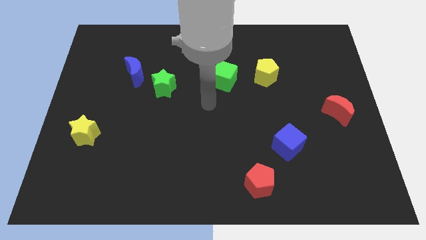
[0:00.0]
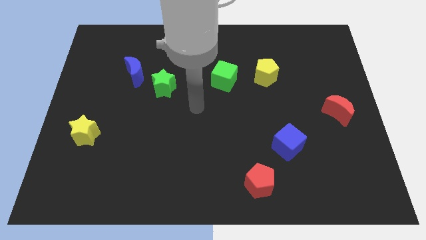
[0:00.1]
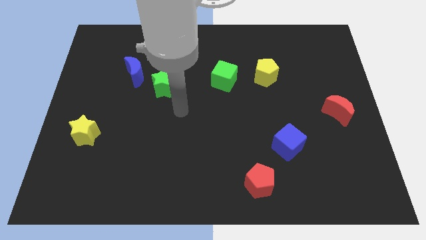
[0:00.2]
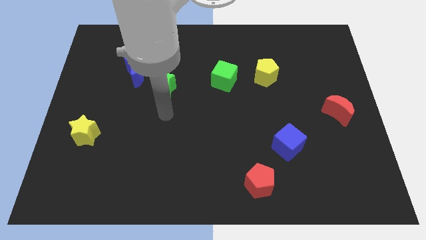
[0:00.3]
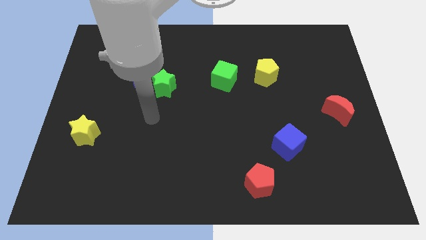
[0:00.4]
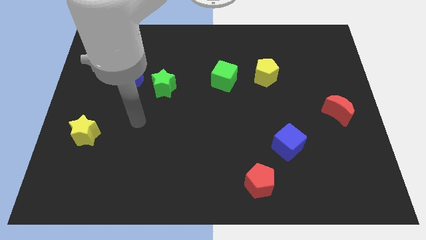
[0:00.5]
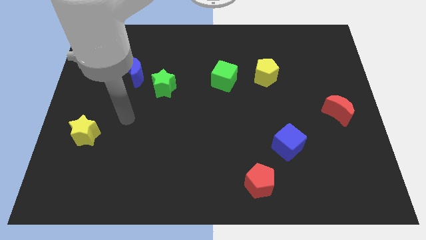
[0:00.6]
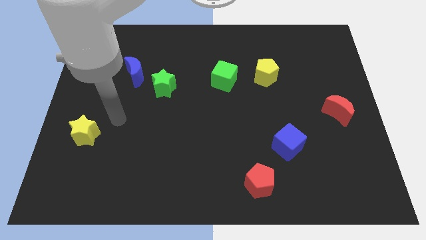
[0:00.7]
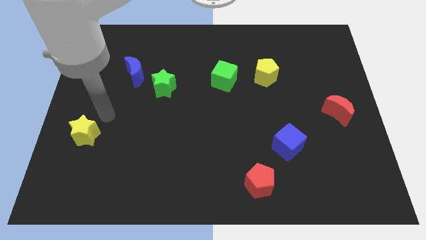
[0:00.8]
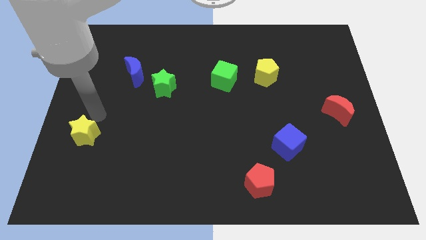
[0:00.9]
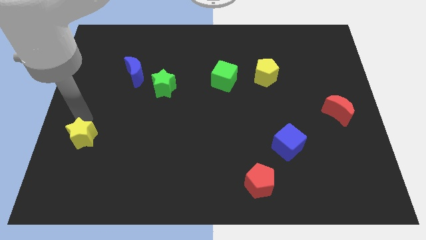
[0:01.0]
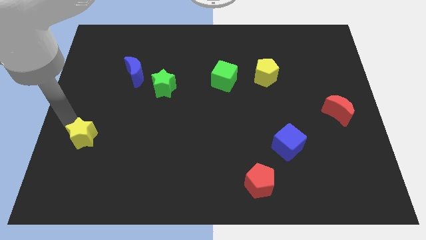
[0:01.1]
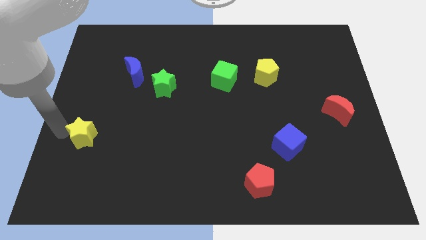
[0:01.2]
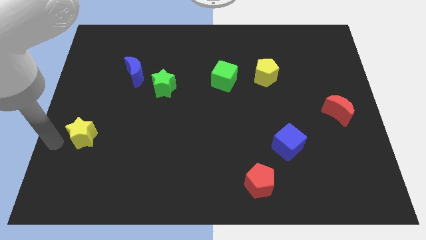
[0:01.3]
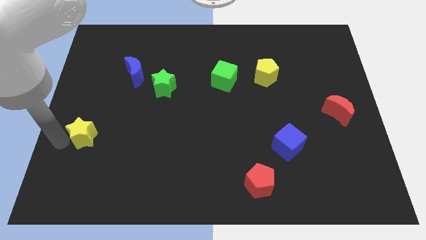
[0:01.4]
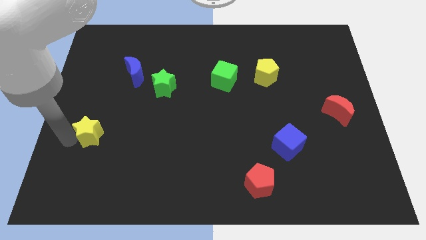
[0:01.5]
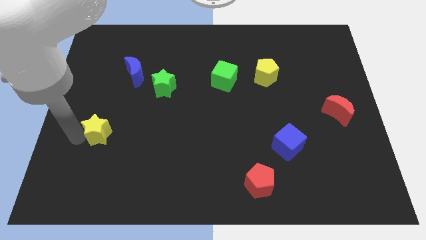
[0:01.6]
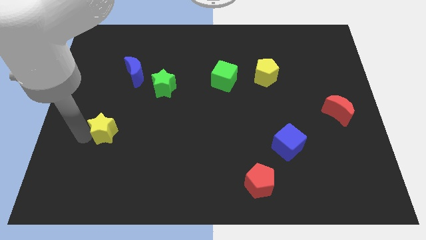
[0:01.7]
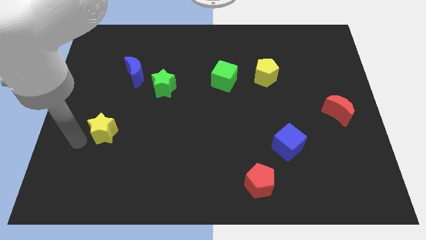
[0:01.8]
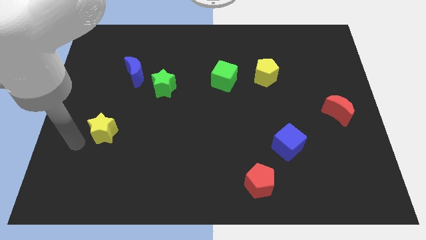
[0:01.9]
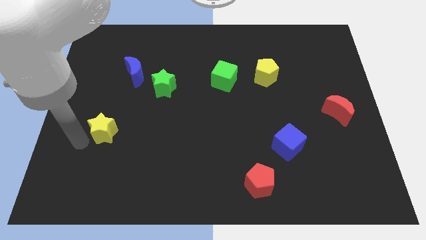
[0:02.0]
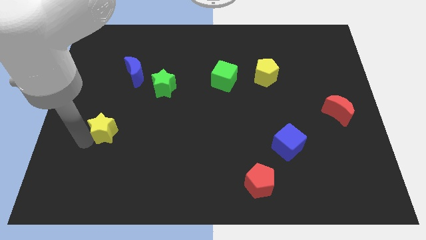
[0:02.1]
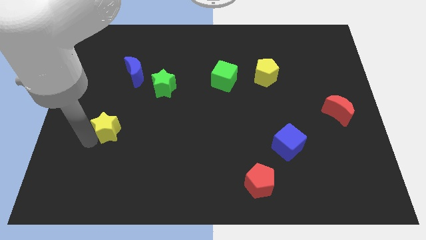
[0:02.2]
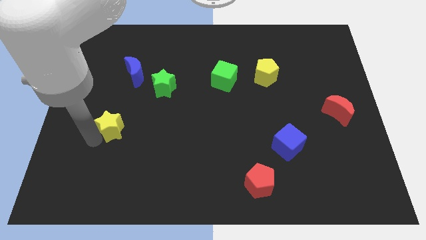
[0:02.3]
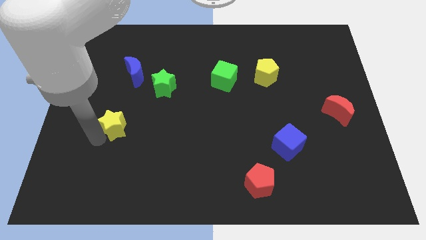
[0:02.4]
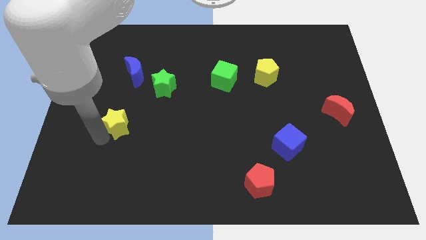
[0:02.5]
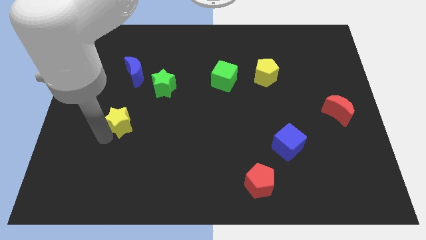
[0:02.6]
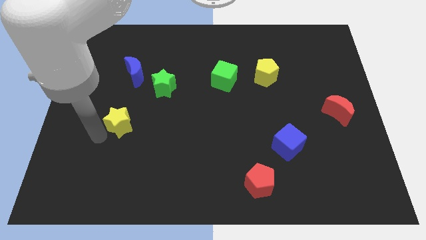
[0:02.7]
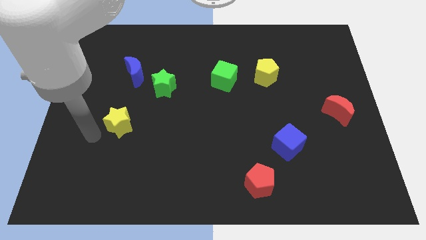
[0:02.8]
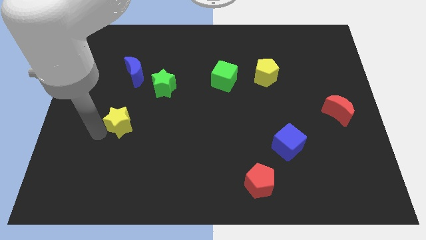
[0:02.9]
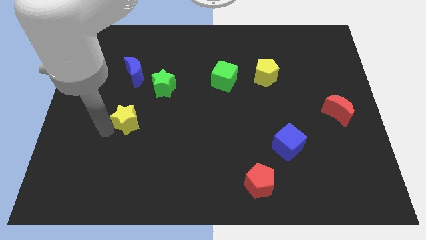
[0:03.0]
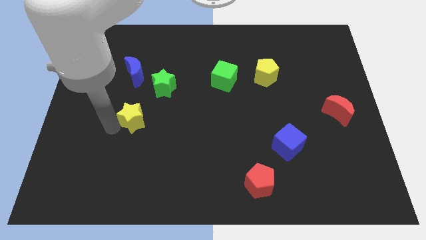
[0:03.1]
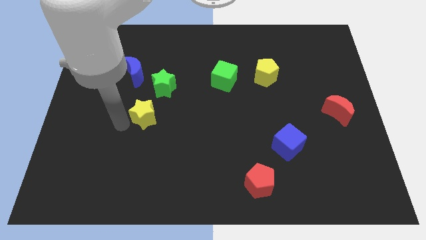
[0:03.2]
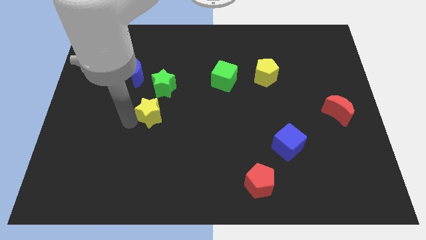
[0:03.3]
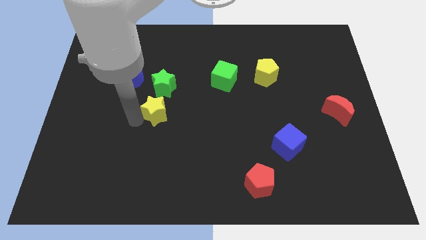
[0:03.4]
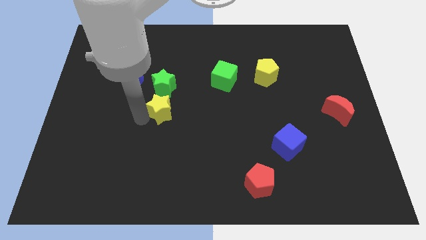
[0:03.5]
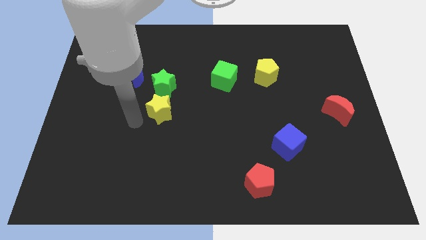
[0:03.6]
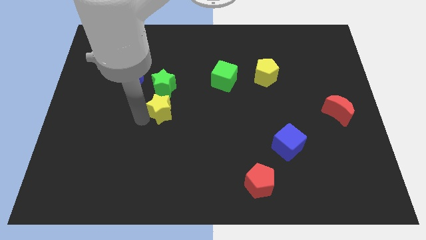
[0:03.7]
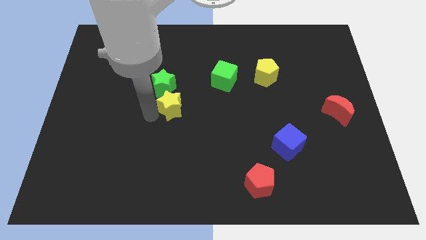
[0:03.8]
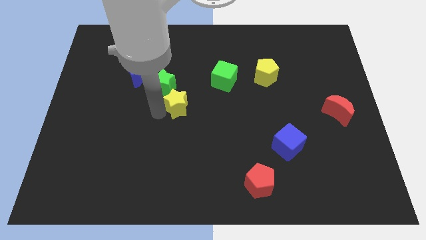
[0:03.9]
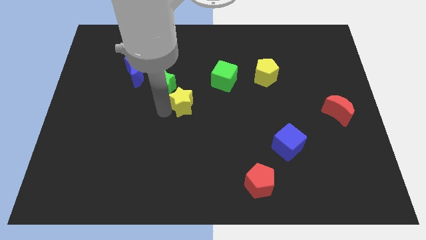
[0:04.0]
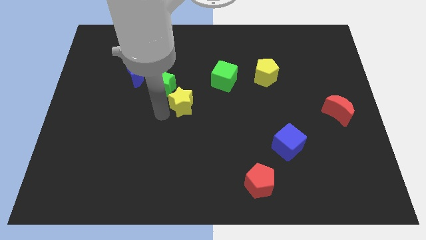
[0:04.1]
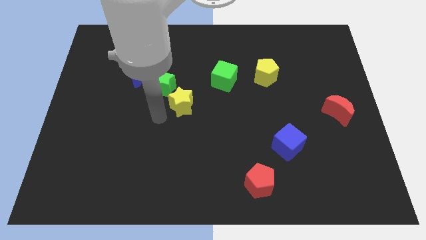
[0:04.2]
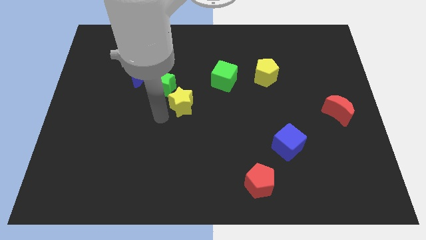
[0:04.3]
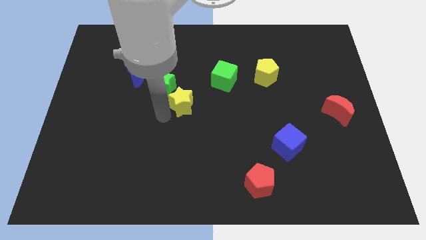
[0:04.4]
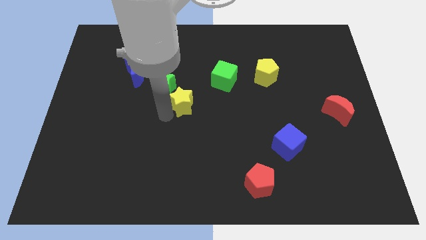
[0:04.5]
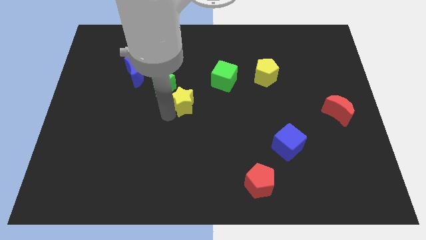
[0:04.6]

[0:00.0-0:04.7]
put the yellow star just right of the green star

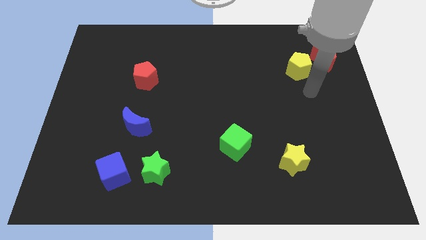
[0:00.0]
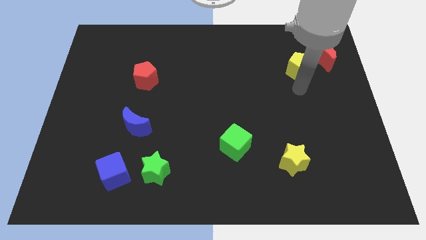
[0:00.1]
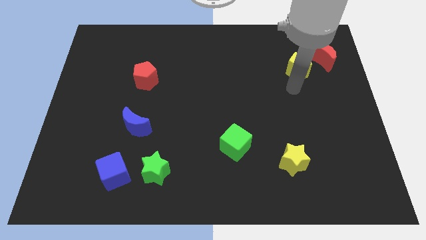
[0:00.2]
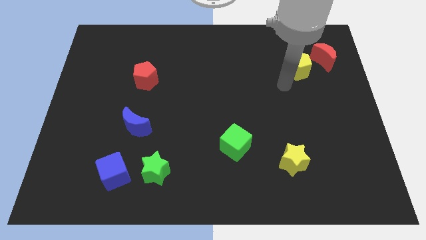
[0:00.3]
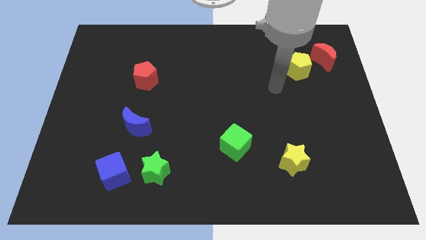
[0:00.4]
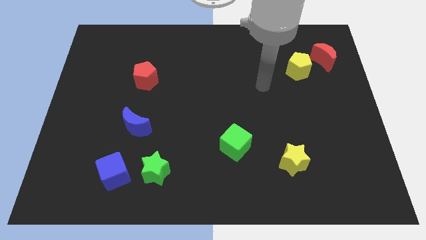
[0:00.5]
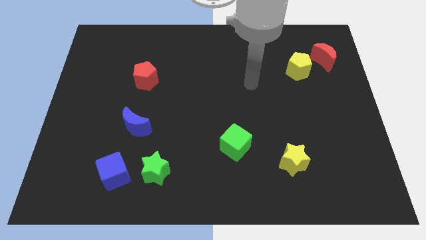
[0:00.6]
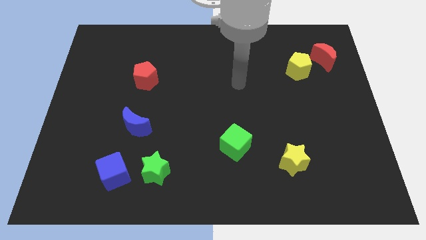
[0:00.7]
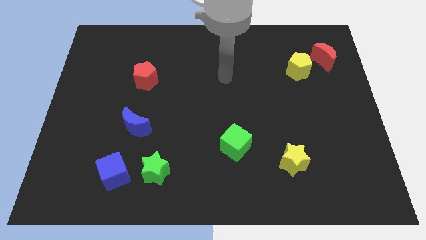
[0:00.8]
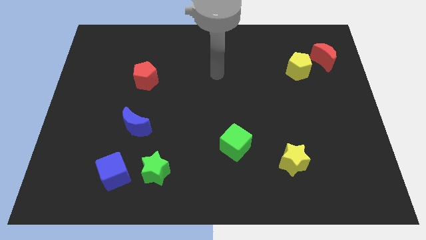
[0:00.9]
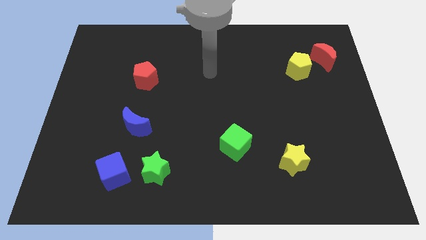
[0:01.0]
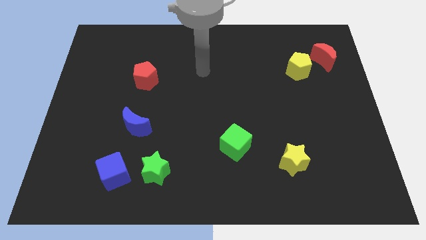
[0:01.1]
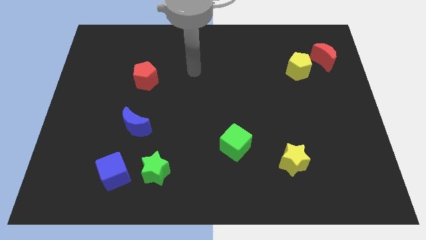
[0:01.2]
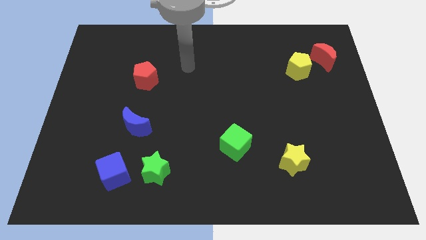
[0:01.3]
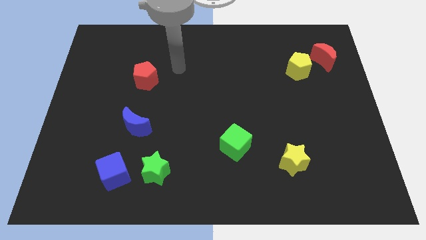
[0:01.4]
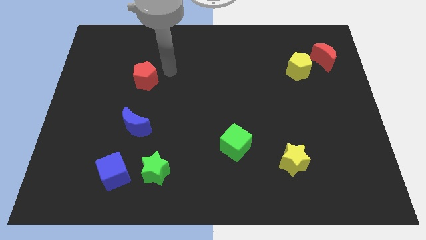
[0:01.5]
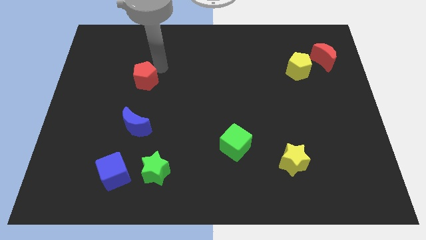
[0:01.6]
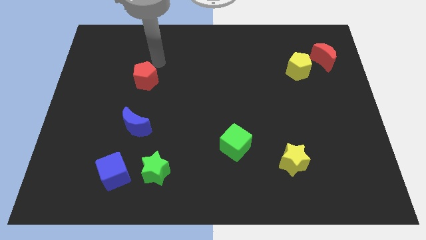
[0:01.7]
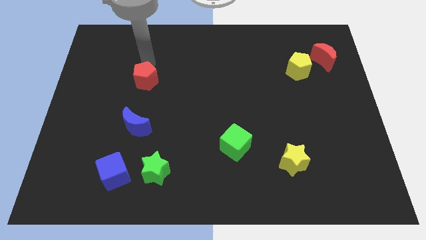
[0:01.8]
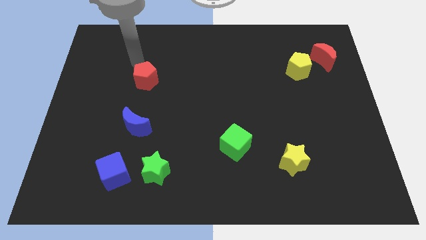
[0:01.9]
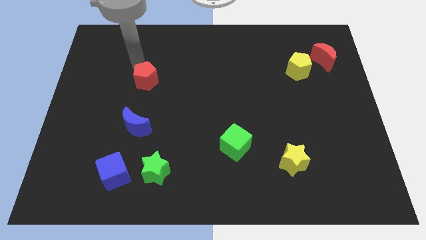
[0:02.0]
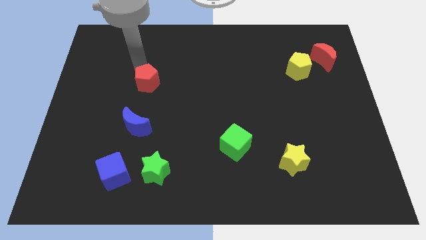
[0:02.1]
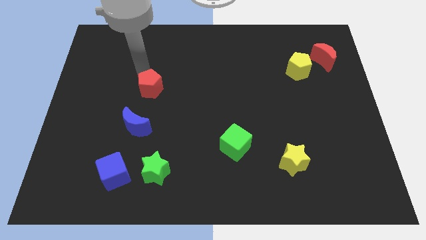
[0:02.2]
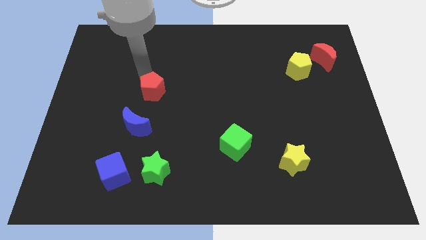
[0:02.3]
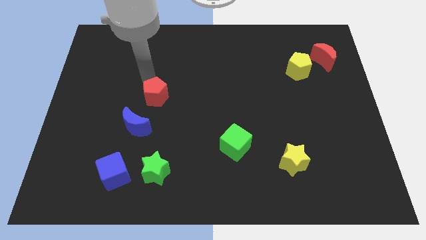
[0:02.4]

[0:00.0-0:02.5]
slide the red pentagon diagonally up and to the right of the blue moon

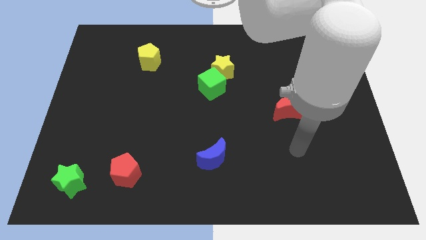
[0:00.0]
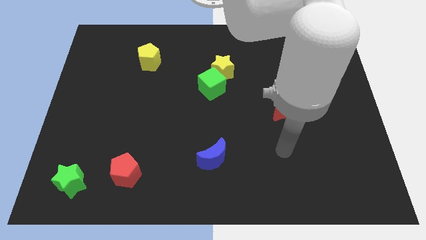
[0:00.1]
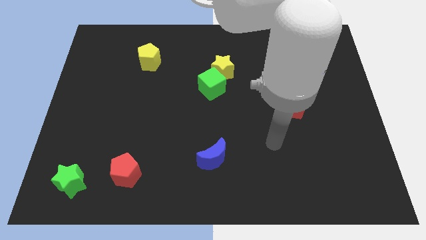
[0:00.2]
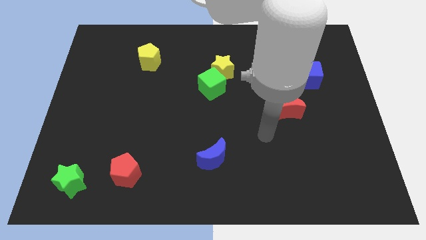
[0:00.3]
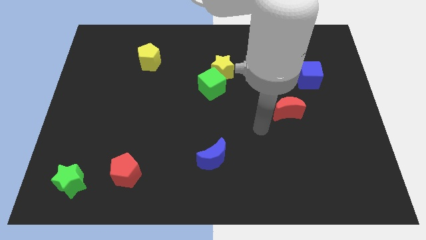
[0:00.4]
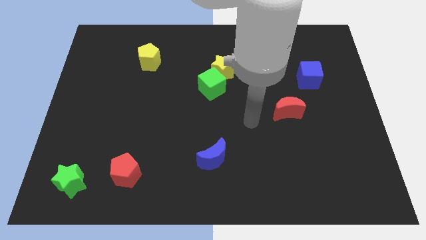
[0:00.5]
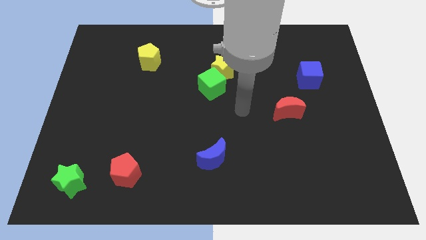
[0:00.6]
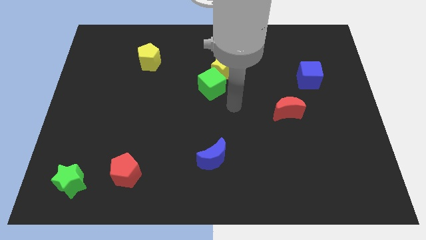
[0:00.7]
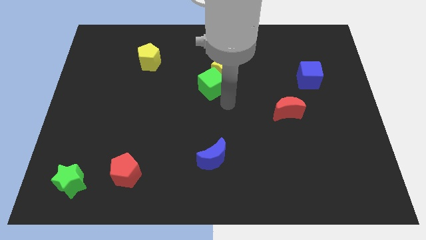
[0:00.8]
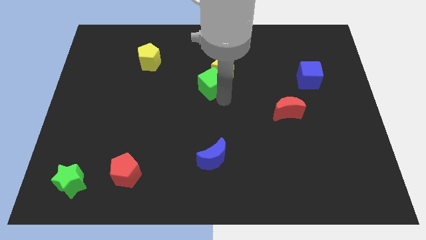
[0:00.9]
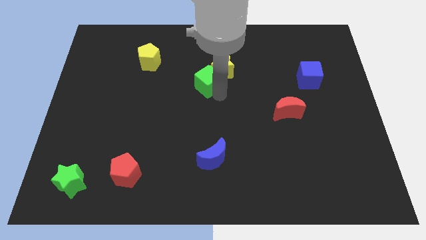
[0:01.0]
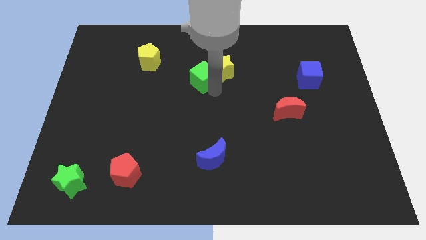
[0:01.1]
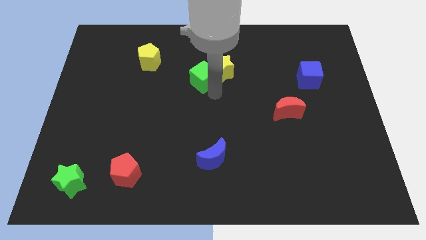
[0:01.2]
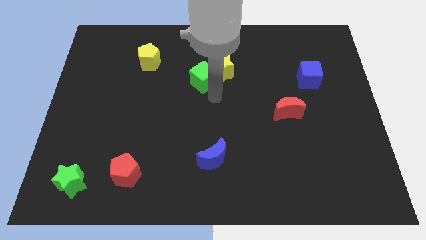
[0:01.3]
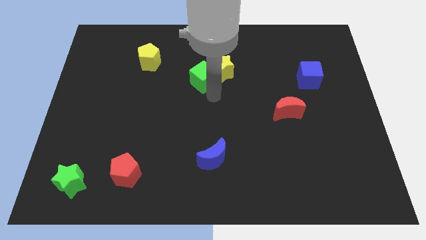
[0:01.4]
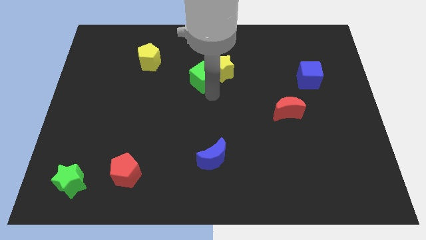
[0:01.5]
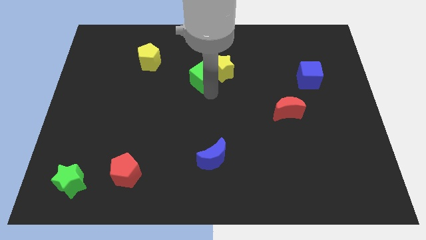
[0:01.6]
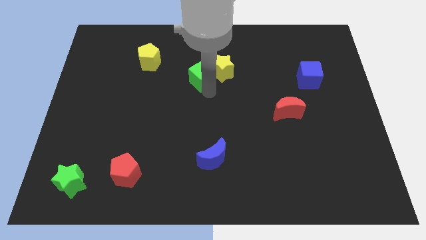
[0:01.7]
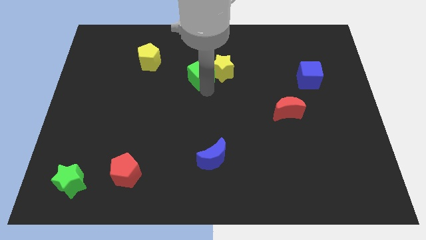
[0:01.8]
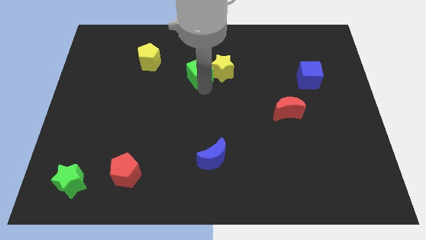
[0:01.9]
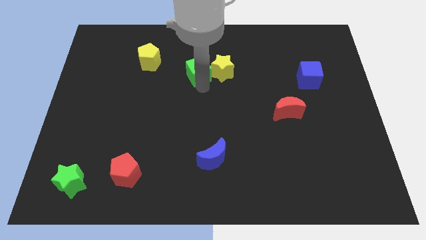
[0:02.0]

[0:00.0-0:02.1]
slide the green cube just right of the yellow pentagon
